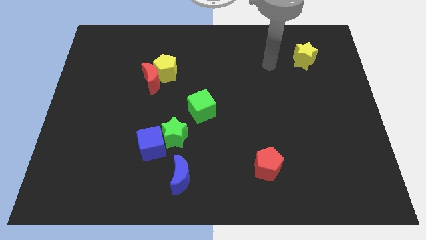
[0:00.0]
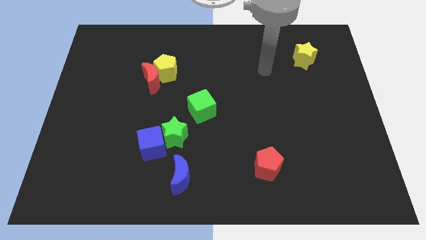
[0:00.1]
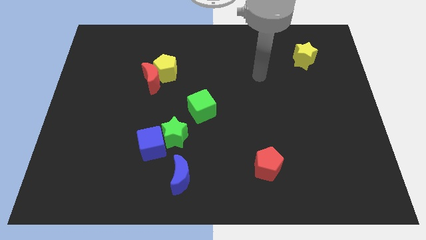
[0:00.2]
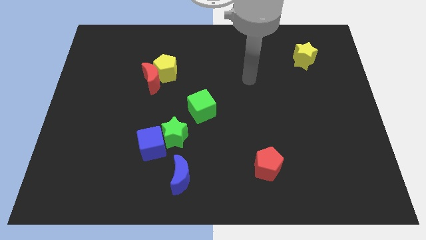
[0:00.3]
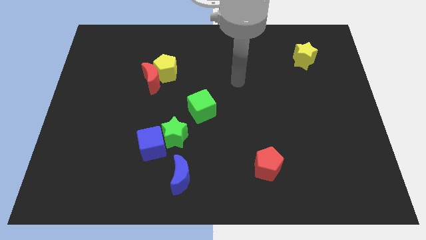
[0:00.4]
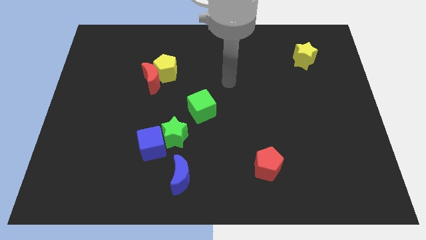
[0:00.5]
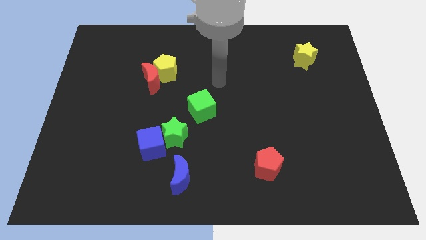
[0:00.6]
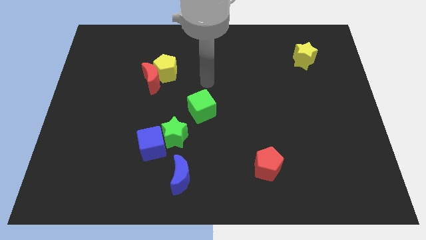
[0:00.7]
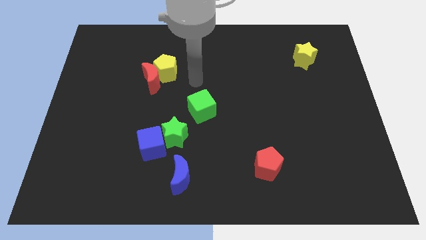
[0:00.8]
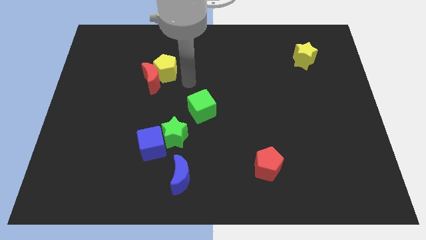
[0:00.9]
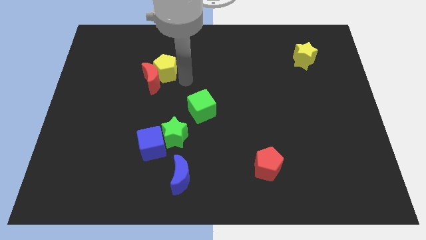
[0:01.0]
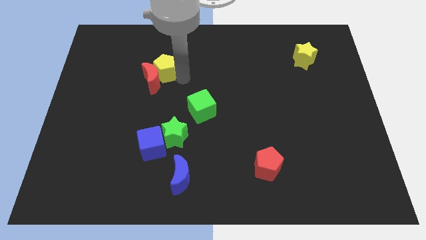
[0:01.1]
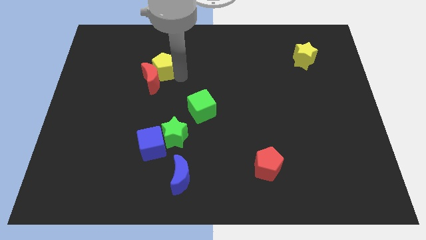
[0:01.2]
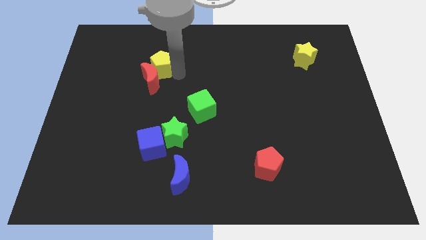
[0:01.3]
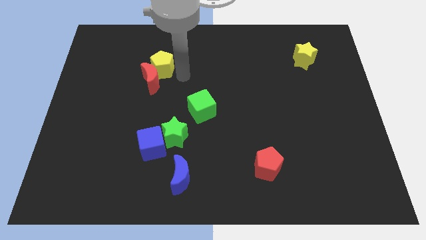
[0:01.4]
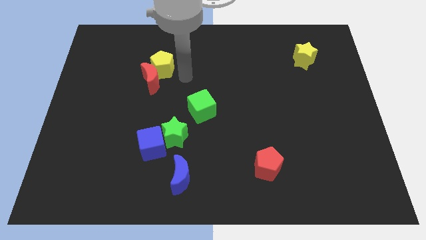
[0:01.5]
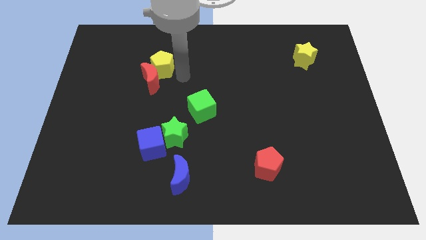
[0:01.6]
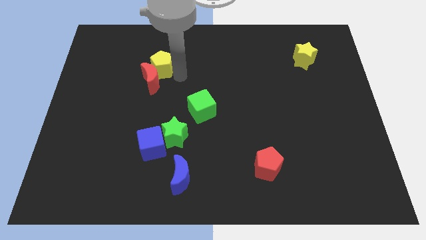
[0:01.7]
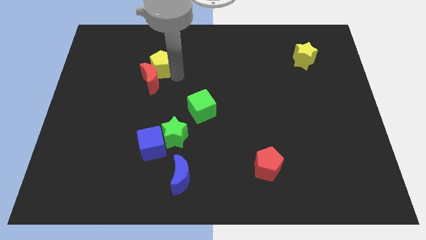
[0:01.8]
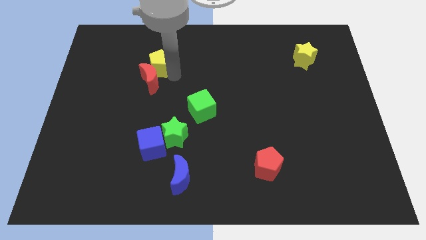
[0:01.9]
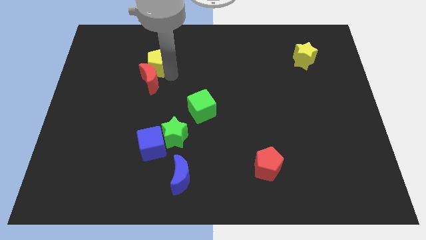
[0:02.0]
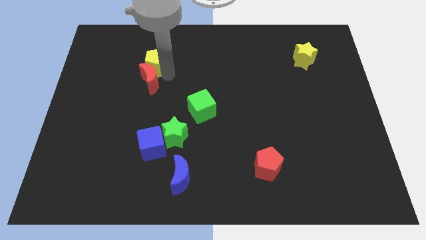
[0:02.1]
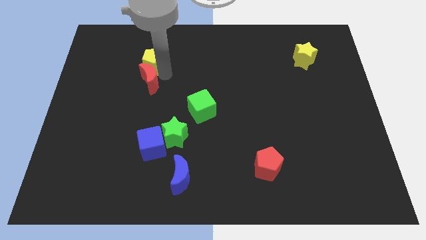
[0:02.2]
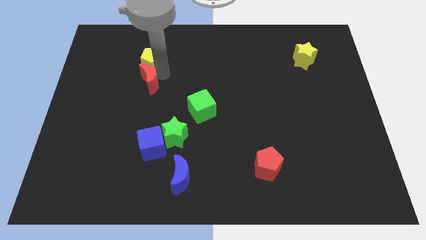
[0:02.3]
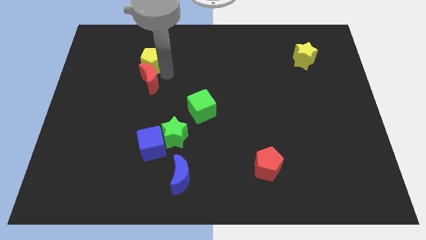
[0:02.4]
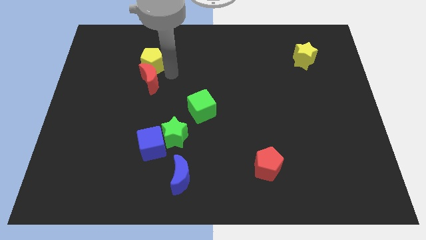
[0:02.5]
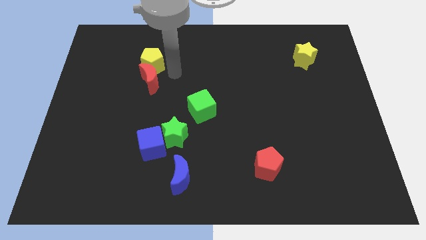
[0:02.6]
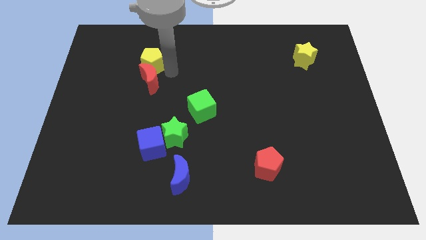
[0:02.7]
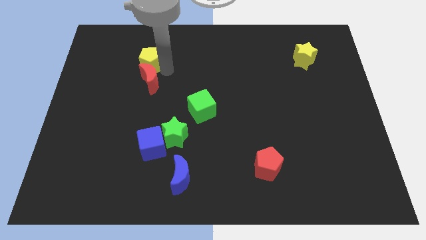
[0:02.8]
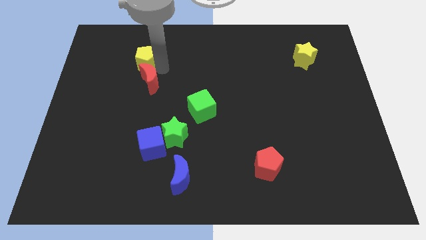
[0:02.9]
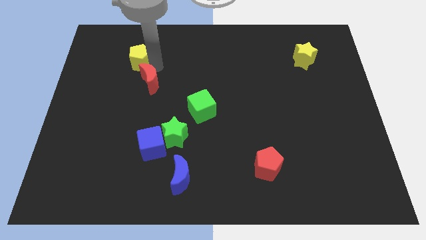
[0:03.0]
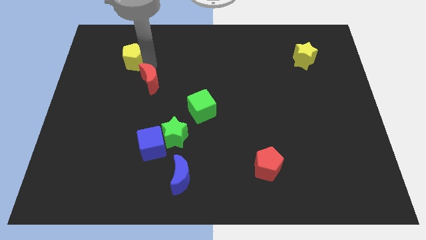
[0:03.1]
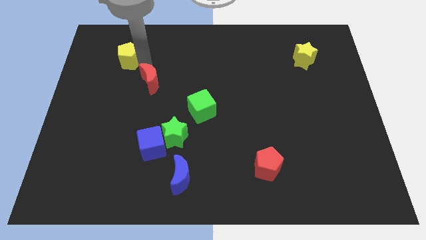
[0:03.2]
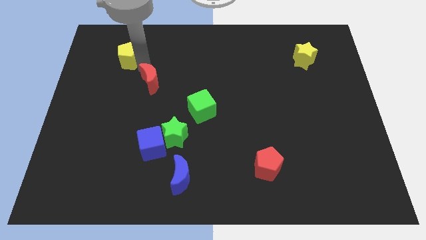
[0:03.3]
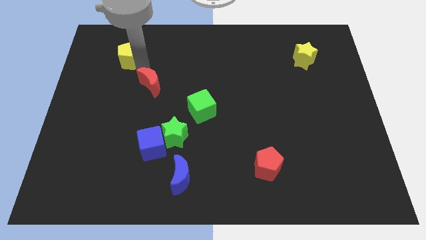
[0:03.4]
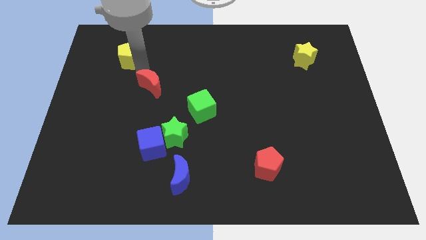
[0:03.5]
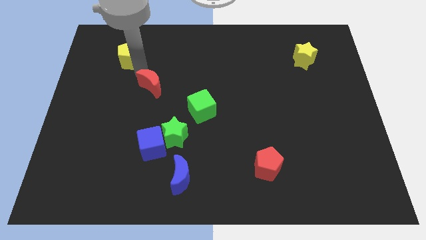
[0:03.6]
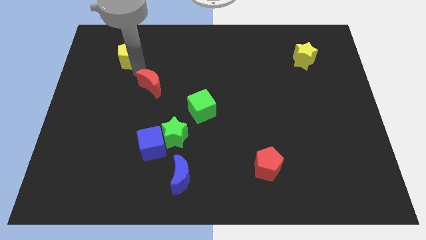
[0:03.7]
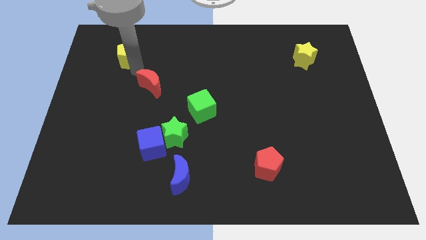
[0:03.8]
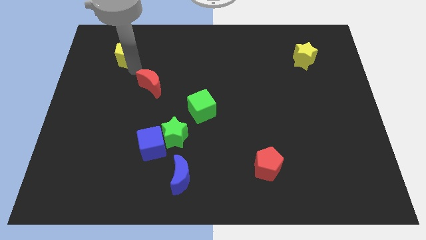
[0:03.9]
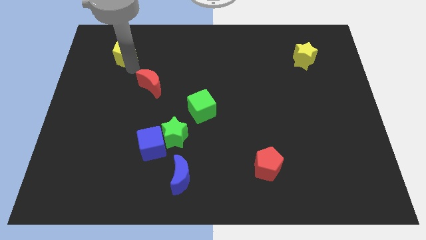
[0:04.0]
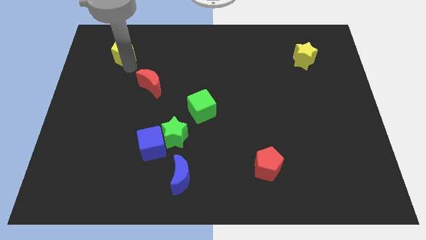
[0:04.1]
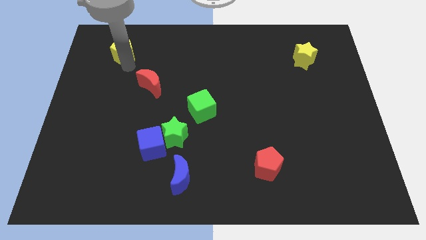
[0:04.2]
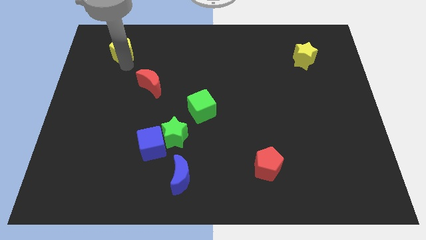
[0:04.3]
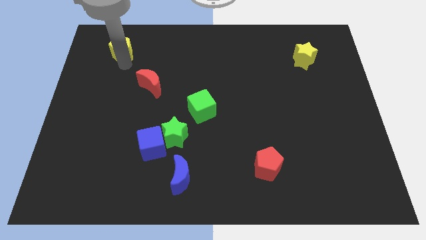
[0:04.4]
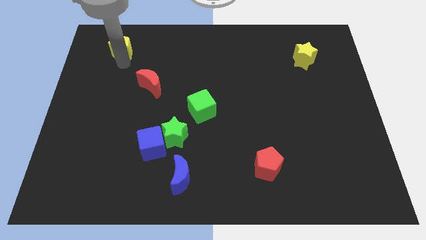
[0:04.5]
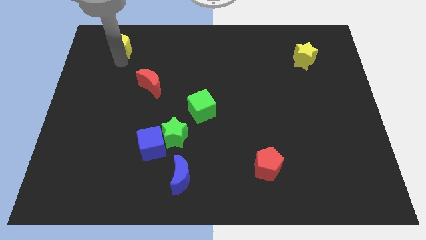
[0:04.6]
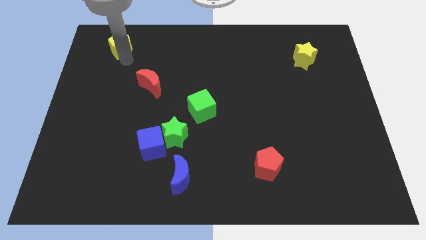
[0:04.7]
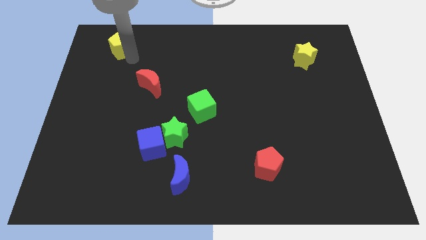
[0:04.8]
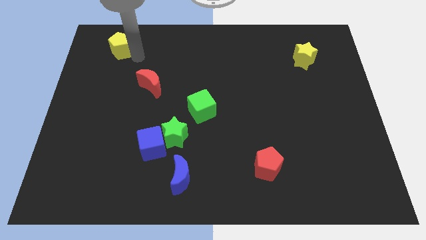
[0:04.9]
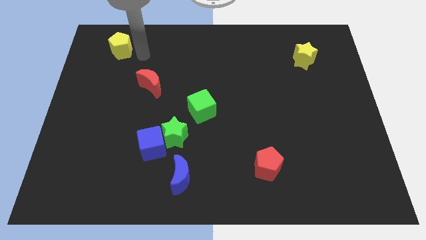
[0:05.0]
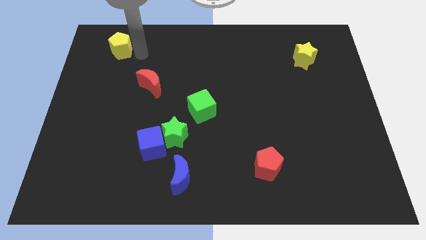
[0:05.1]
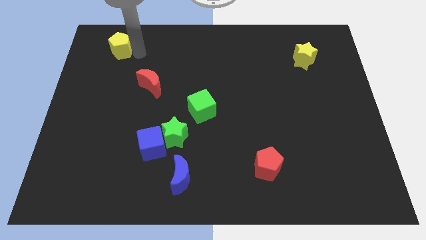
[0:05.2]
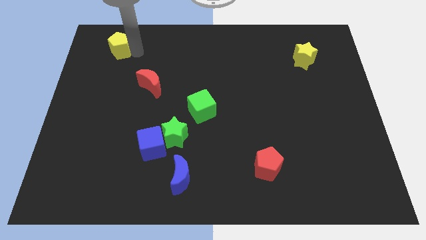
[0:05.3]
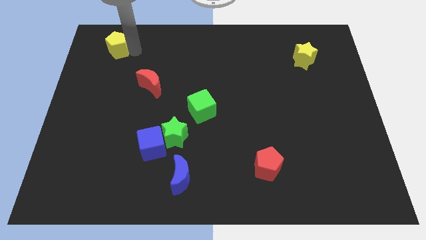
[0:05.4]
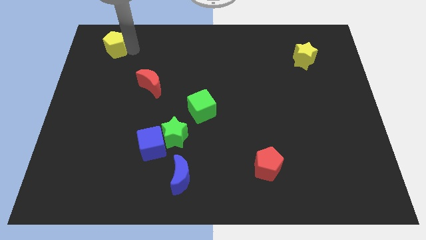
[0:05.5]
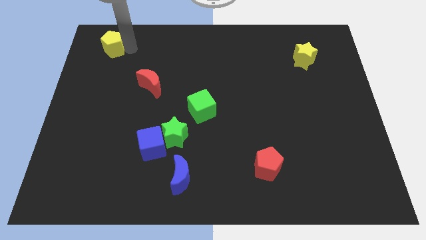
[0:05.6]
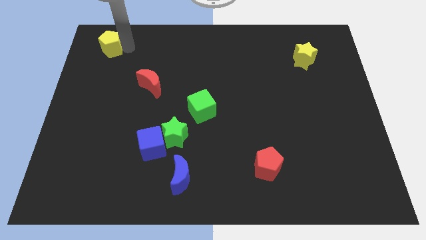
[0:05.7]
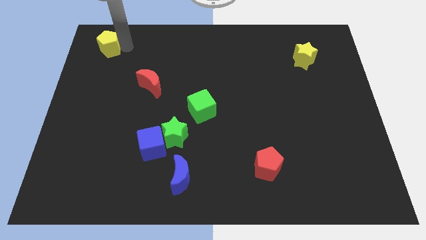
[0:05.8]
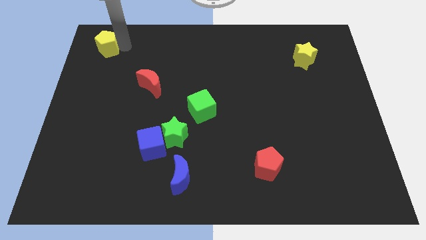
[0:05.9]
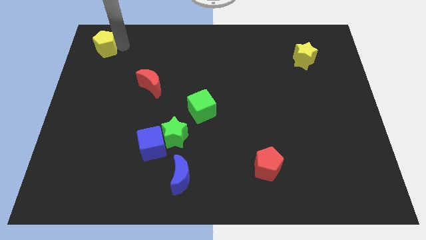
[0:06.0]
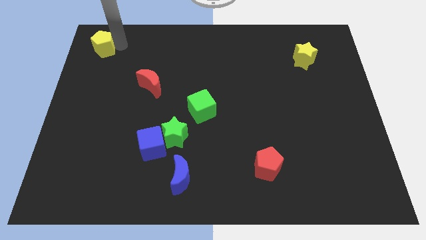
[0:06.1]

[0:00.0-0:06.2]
move the yellow pentagon to the top left of the board

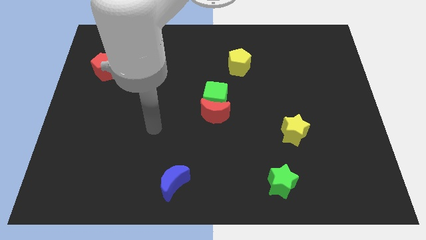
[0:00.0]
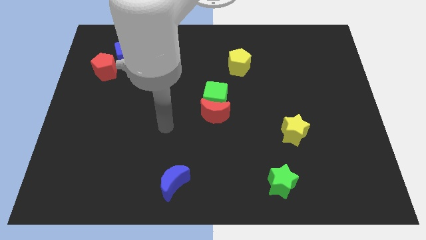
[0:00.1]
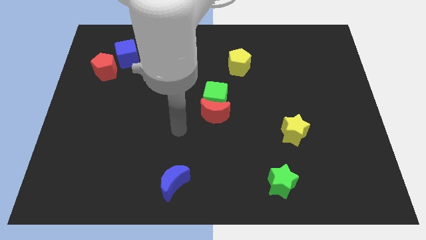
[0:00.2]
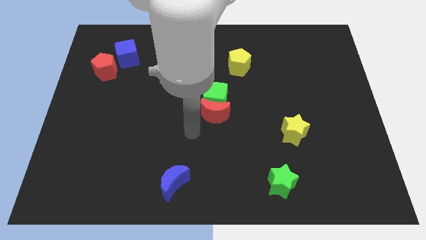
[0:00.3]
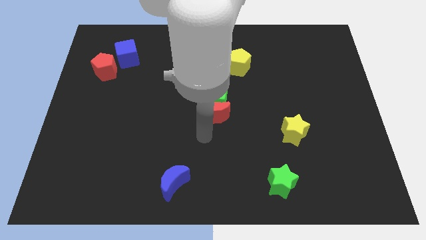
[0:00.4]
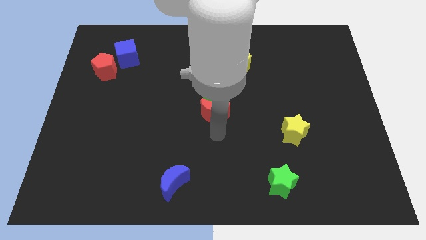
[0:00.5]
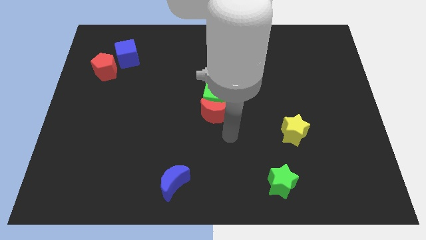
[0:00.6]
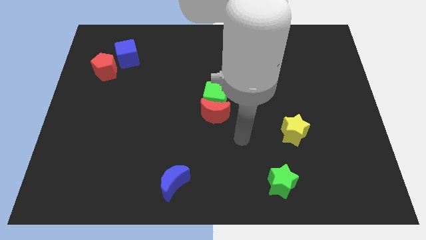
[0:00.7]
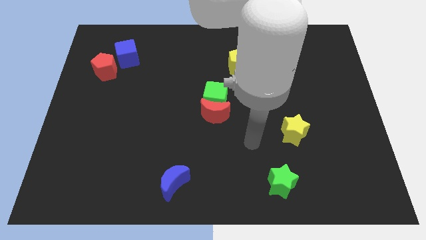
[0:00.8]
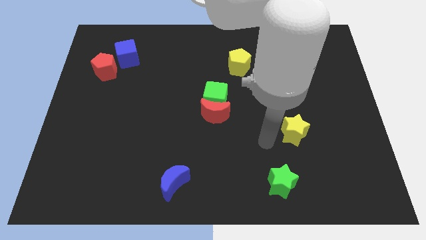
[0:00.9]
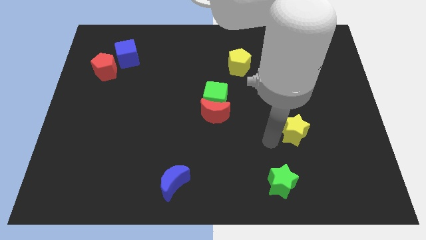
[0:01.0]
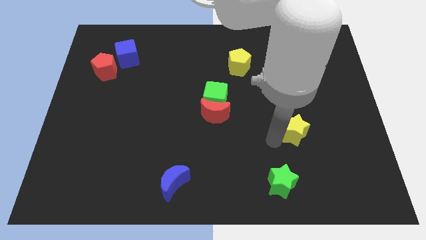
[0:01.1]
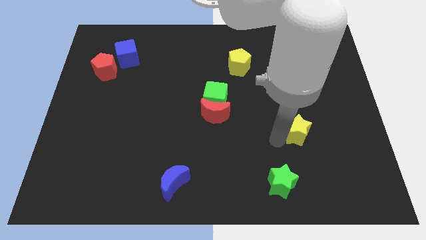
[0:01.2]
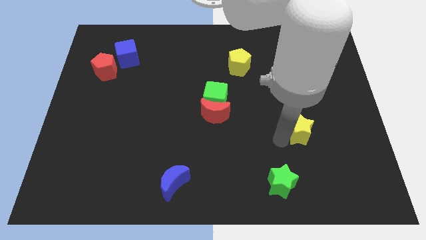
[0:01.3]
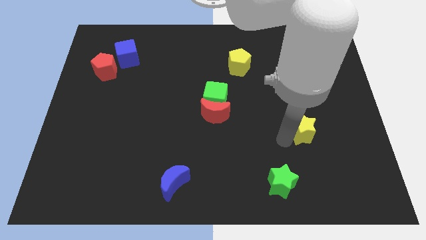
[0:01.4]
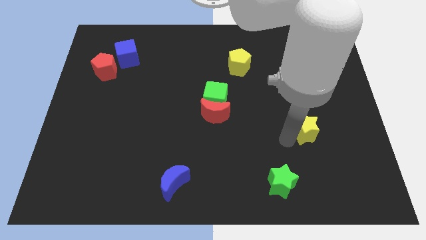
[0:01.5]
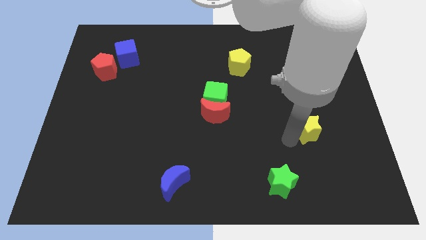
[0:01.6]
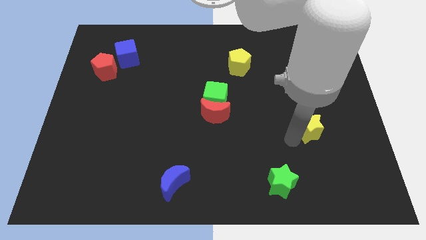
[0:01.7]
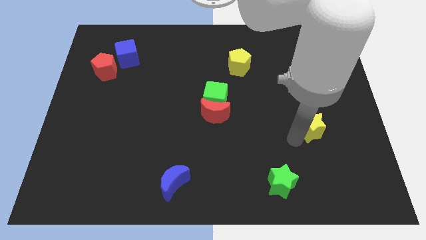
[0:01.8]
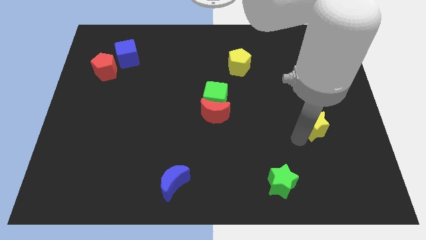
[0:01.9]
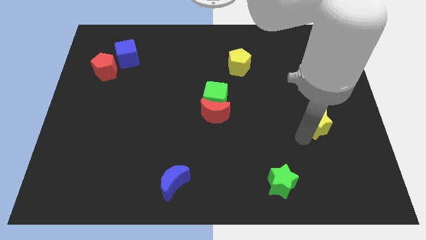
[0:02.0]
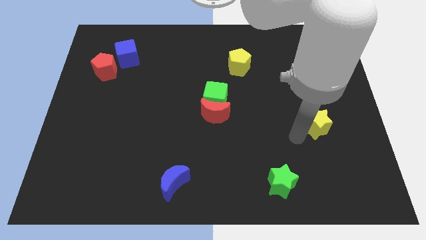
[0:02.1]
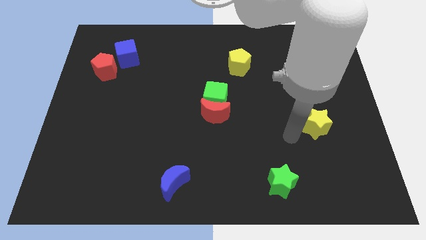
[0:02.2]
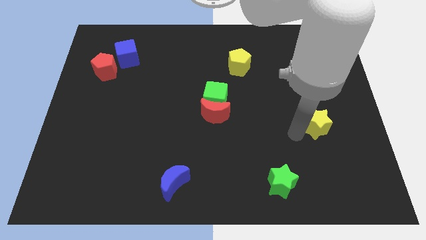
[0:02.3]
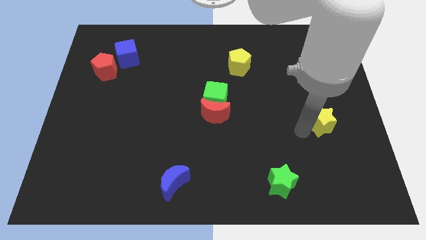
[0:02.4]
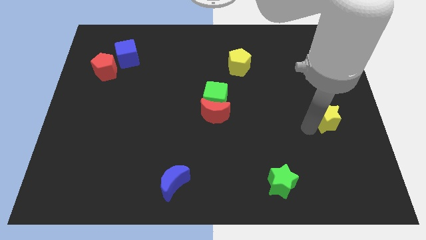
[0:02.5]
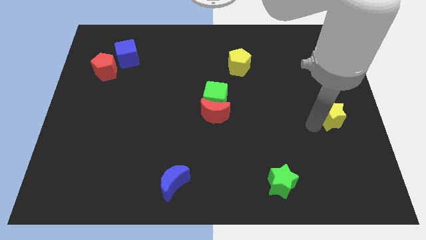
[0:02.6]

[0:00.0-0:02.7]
slide the yellow star to the right side
